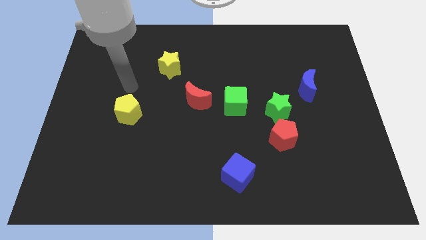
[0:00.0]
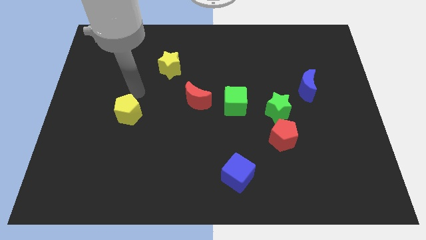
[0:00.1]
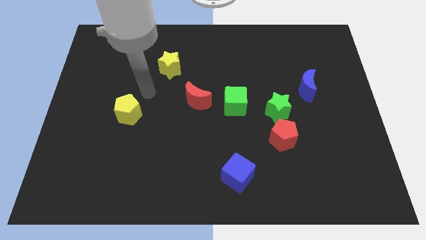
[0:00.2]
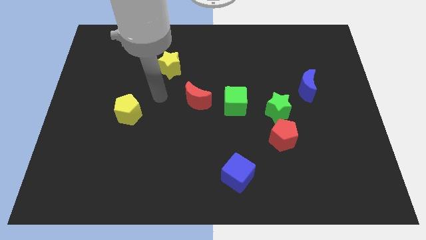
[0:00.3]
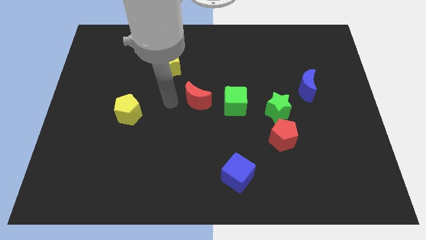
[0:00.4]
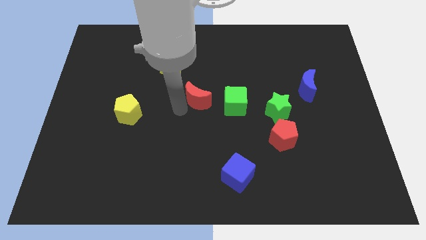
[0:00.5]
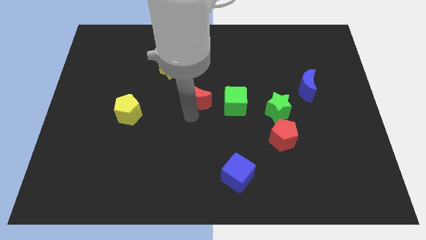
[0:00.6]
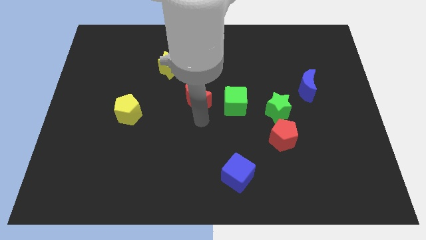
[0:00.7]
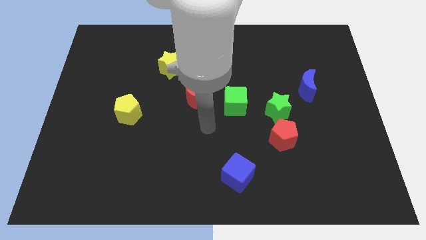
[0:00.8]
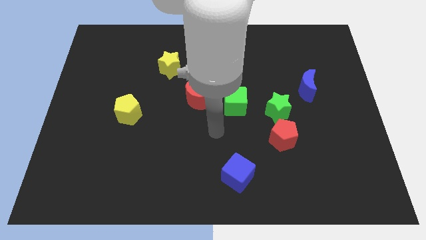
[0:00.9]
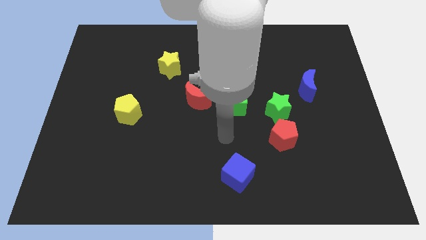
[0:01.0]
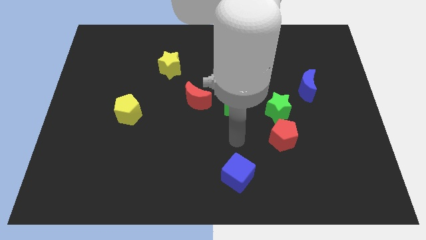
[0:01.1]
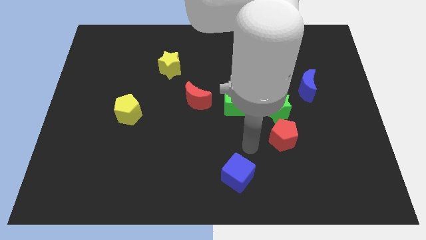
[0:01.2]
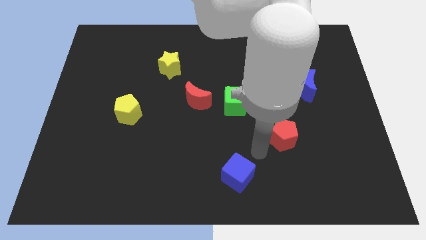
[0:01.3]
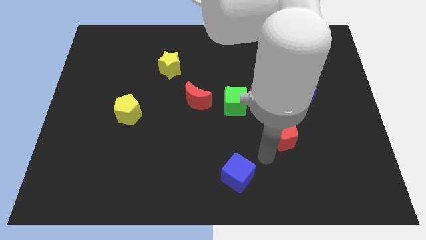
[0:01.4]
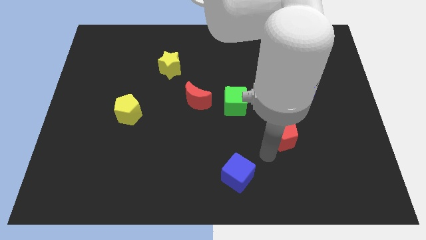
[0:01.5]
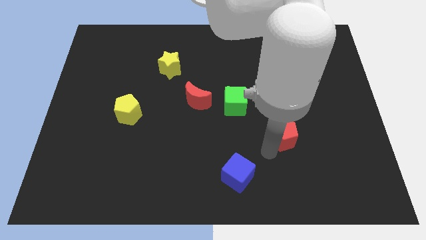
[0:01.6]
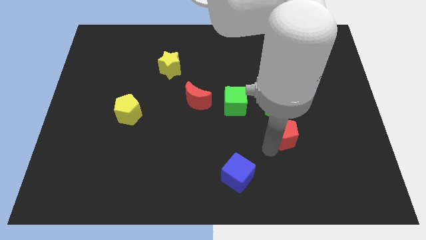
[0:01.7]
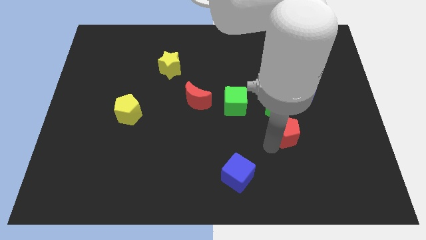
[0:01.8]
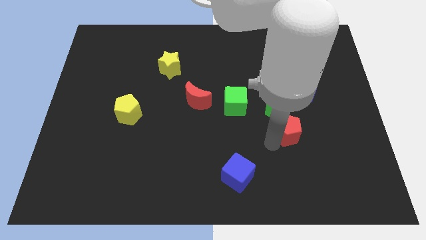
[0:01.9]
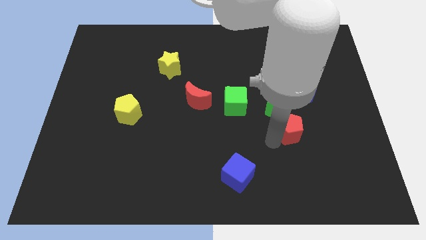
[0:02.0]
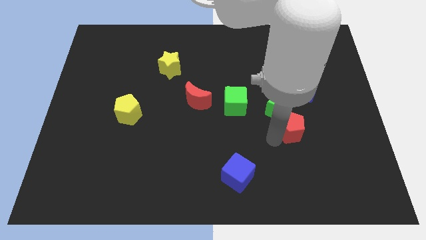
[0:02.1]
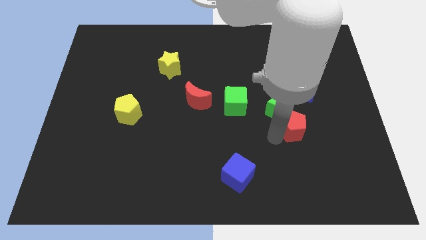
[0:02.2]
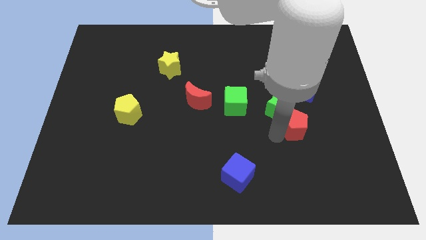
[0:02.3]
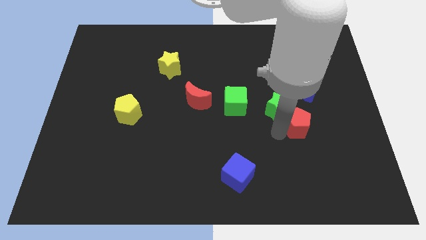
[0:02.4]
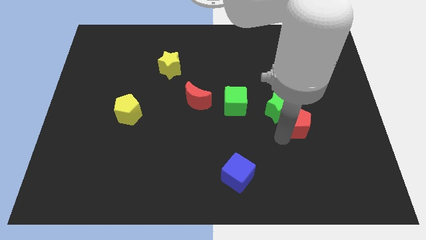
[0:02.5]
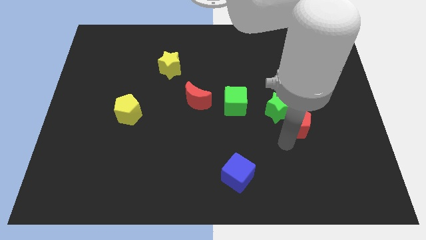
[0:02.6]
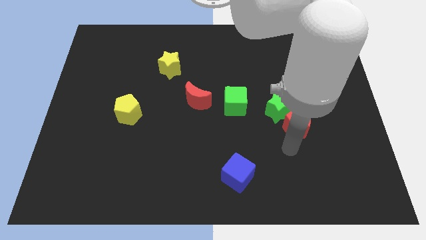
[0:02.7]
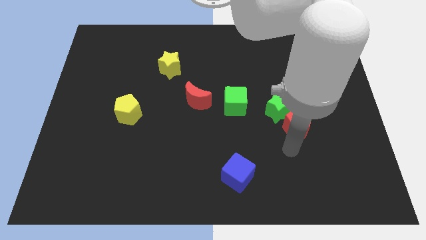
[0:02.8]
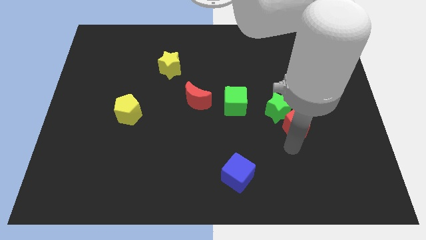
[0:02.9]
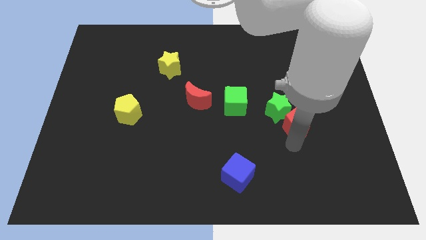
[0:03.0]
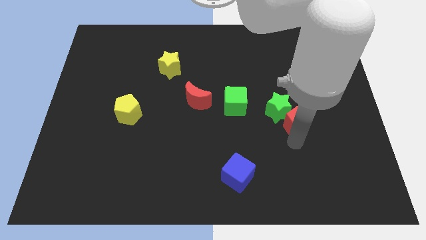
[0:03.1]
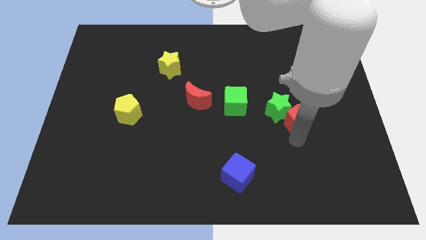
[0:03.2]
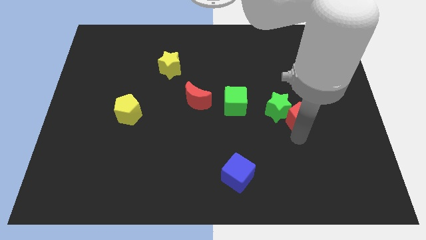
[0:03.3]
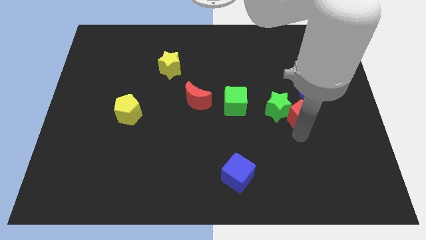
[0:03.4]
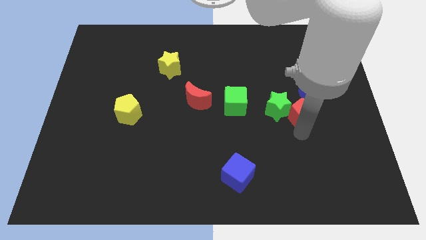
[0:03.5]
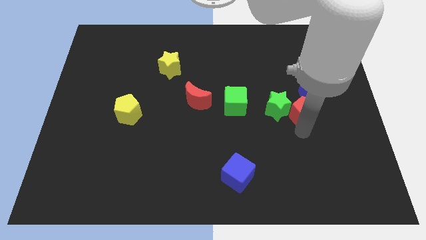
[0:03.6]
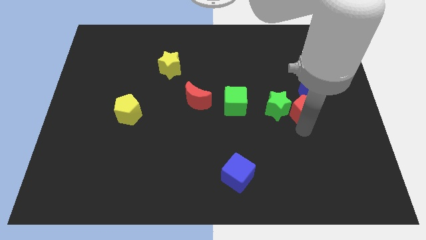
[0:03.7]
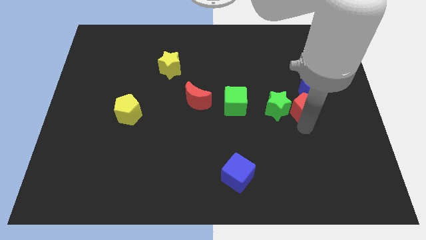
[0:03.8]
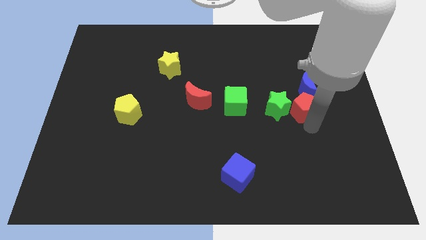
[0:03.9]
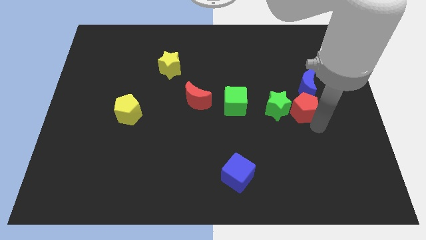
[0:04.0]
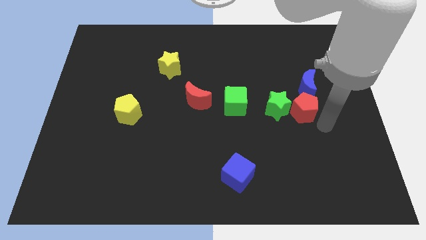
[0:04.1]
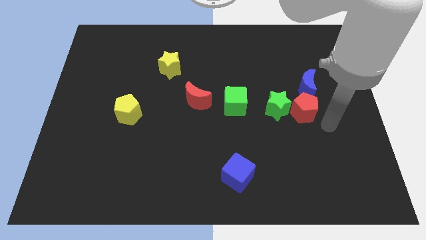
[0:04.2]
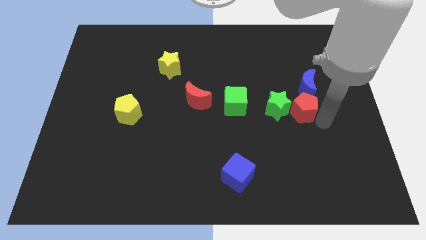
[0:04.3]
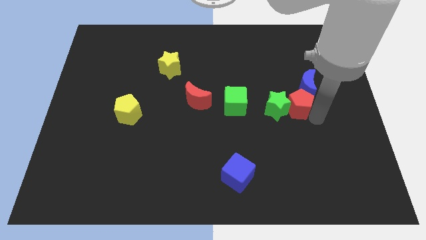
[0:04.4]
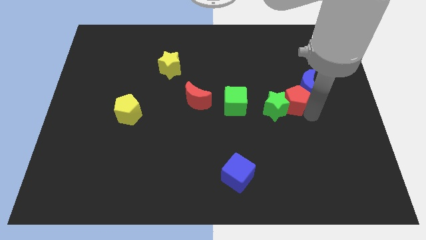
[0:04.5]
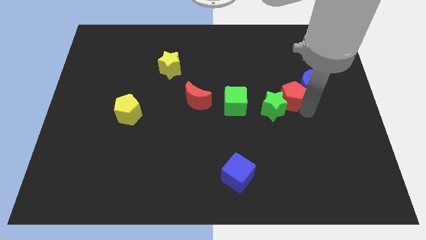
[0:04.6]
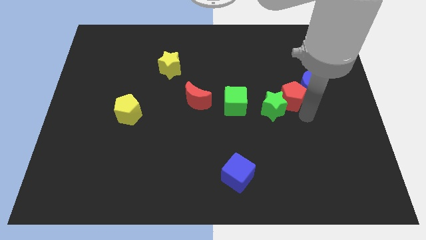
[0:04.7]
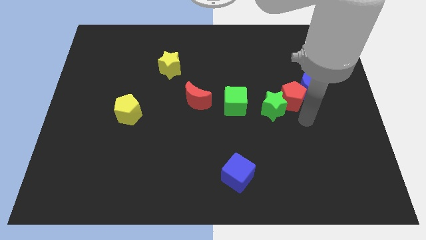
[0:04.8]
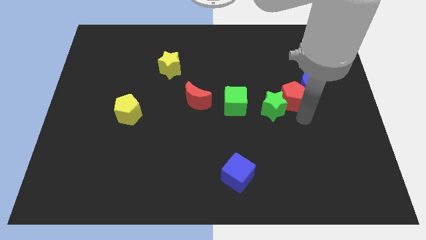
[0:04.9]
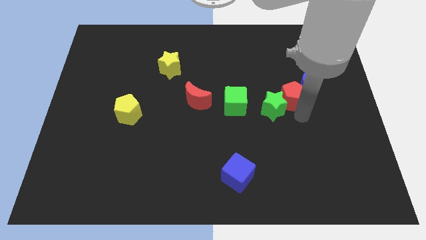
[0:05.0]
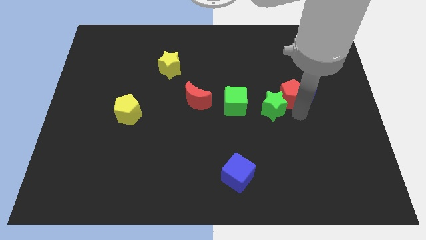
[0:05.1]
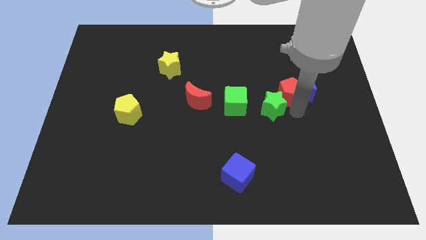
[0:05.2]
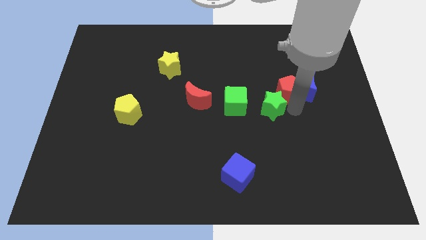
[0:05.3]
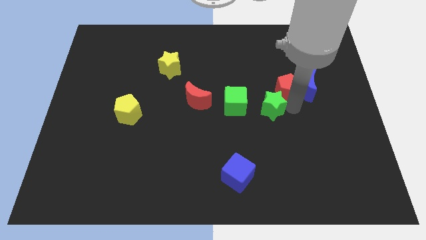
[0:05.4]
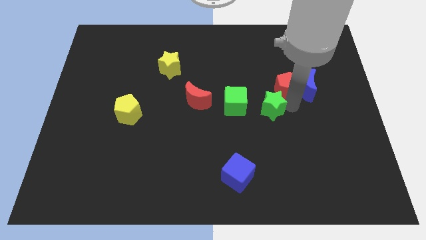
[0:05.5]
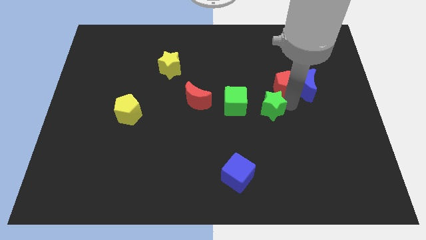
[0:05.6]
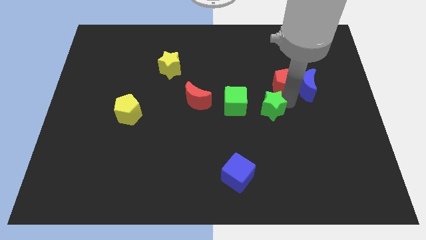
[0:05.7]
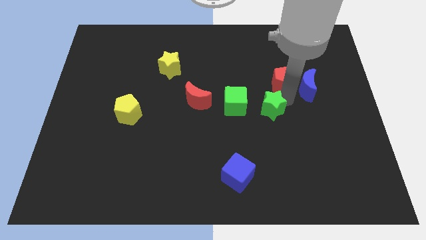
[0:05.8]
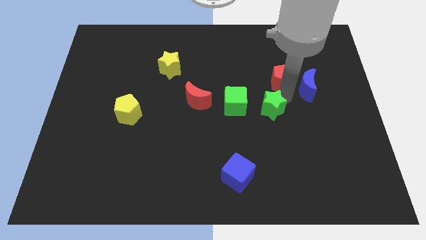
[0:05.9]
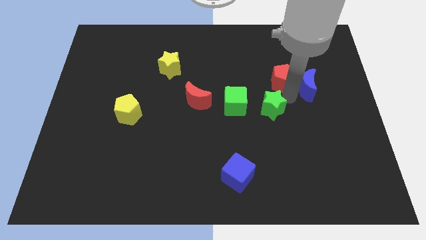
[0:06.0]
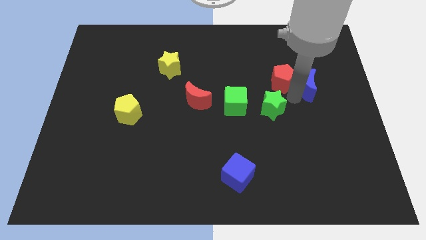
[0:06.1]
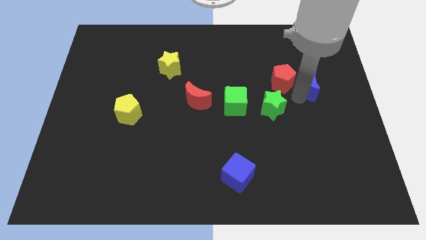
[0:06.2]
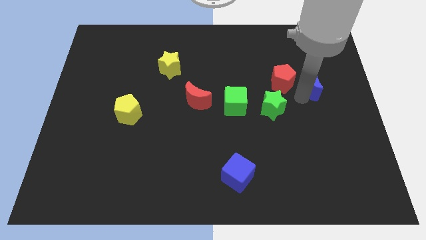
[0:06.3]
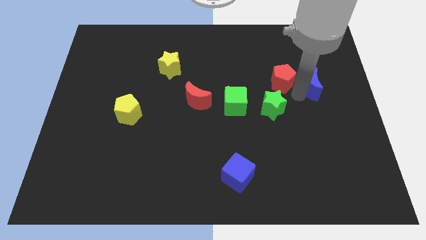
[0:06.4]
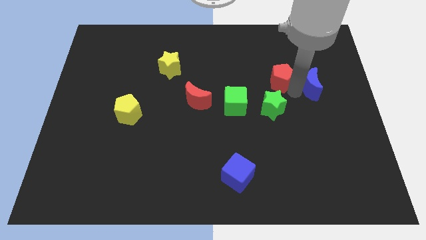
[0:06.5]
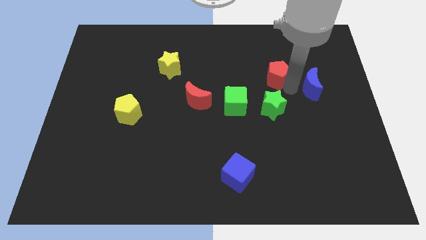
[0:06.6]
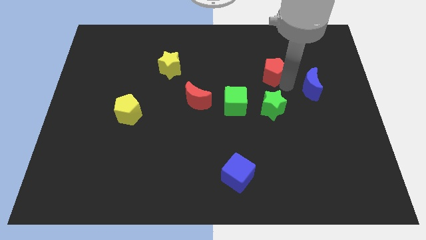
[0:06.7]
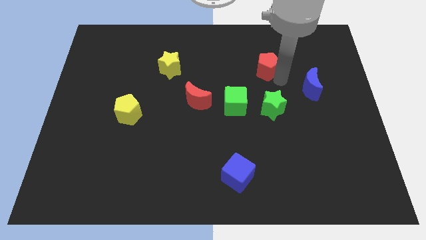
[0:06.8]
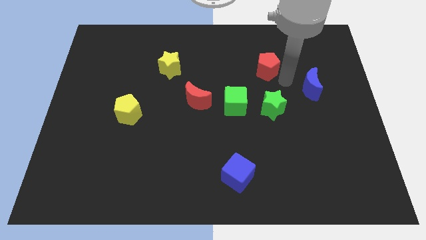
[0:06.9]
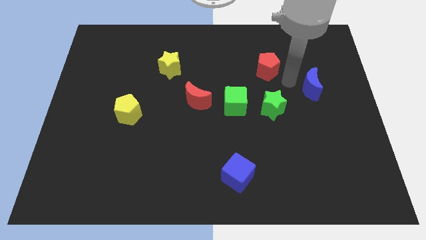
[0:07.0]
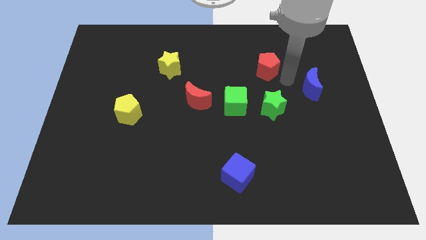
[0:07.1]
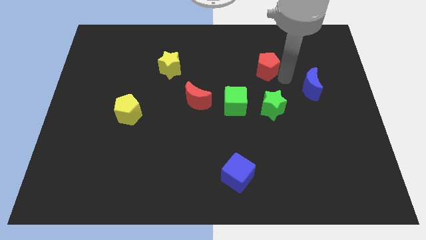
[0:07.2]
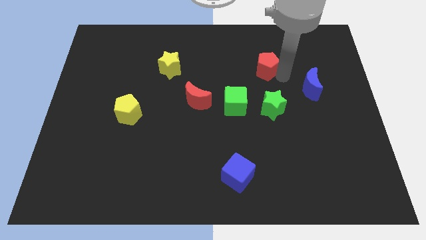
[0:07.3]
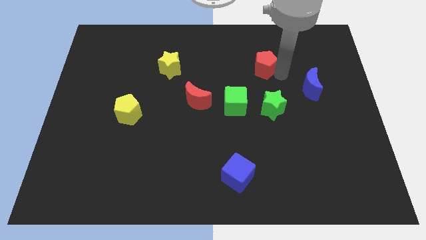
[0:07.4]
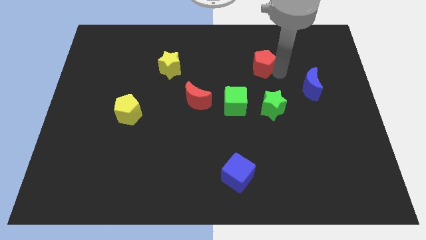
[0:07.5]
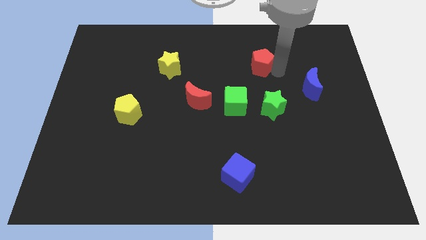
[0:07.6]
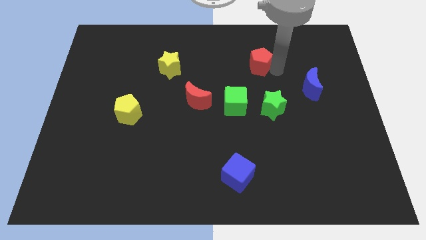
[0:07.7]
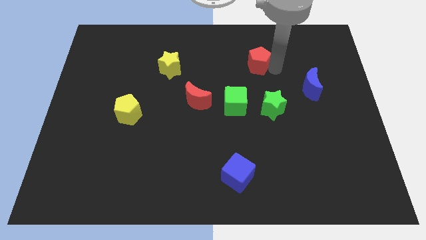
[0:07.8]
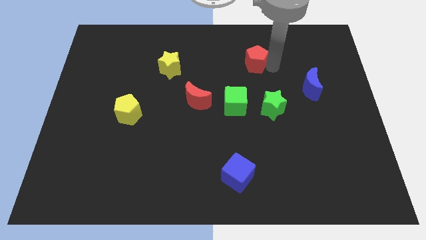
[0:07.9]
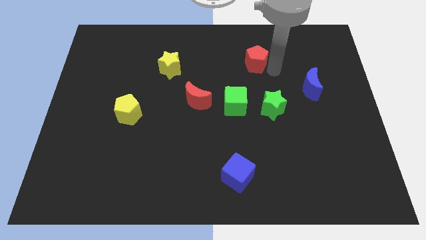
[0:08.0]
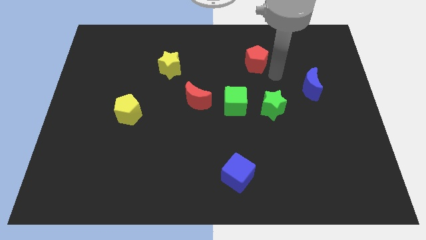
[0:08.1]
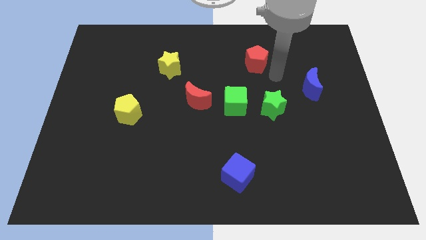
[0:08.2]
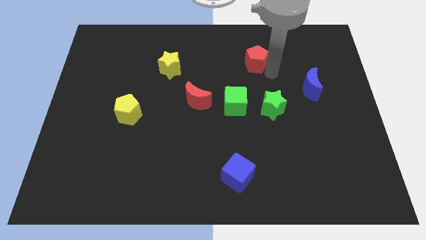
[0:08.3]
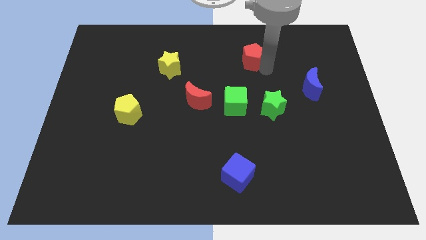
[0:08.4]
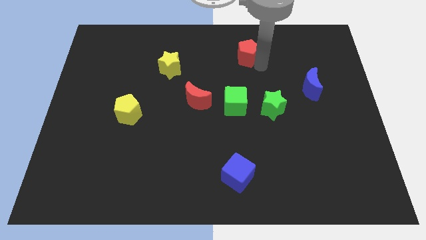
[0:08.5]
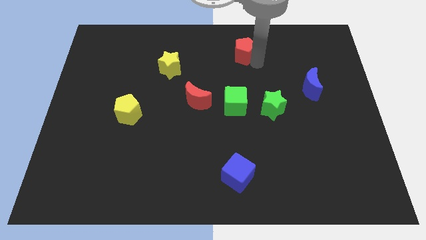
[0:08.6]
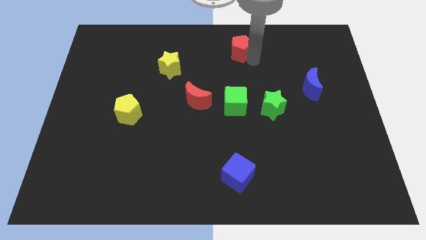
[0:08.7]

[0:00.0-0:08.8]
slide the red pentagon to the top
